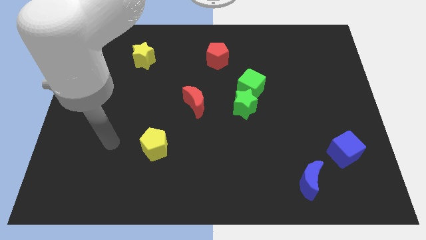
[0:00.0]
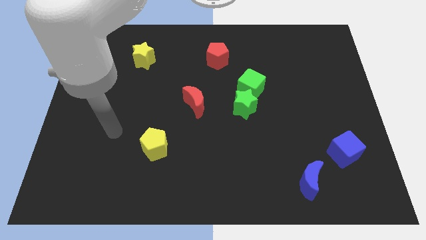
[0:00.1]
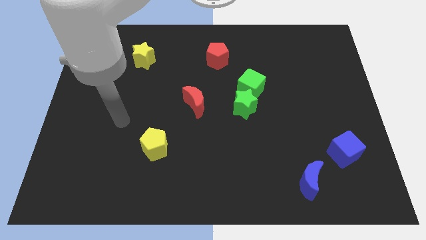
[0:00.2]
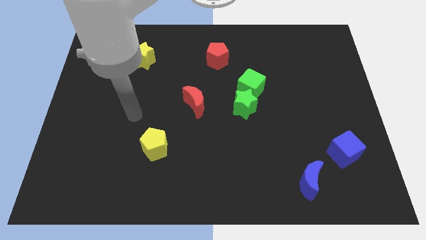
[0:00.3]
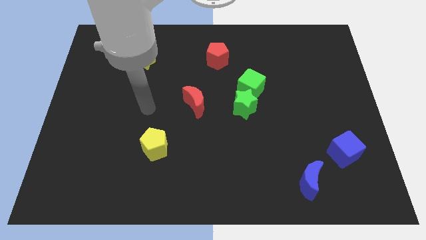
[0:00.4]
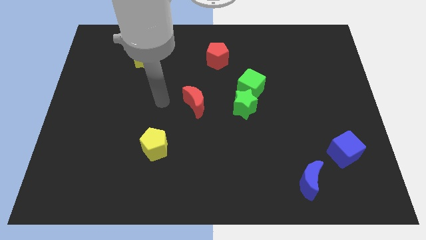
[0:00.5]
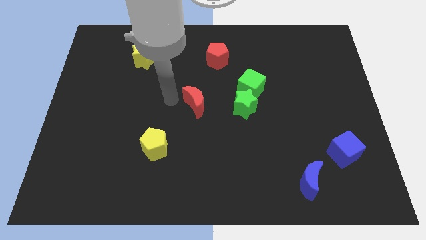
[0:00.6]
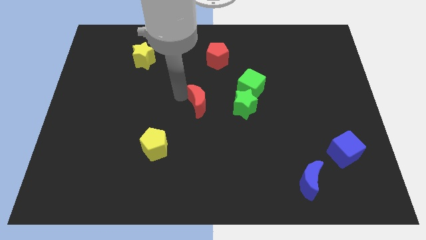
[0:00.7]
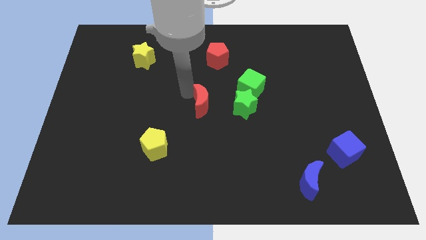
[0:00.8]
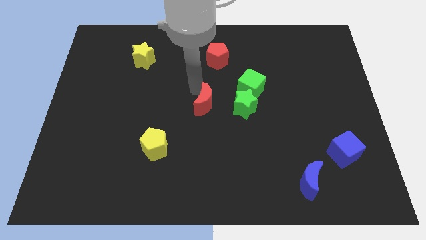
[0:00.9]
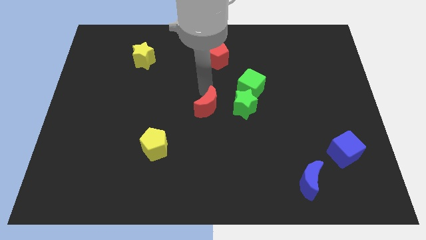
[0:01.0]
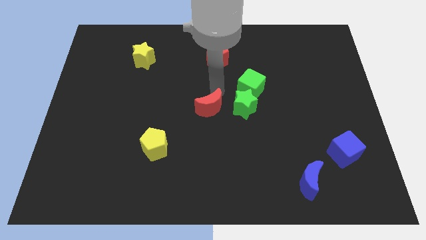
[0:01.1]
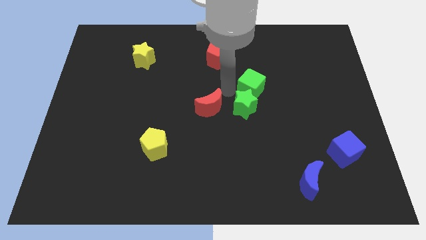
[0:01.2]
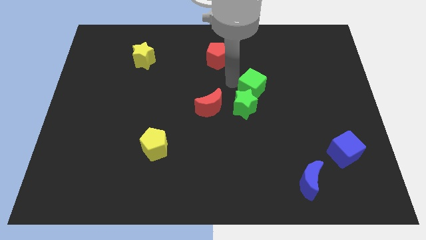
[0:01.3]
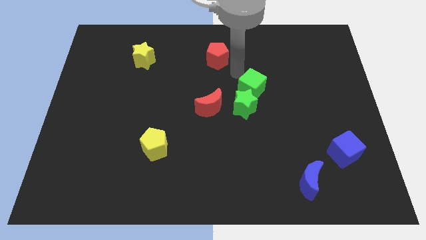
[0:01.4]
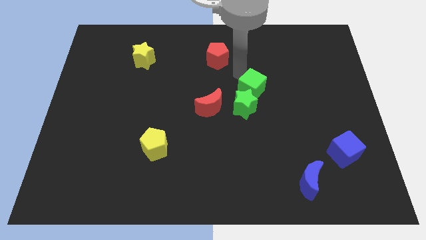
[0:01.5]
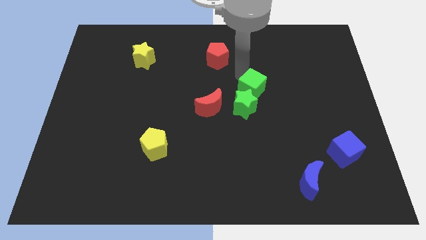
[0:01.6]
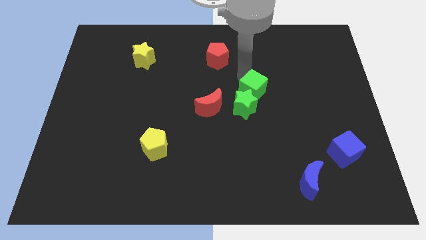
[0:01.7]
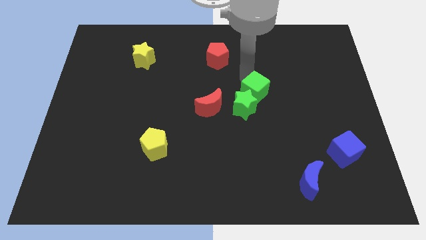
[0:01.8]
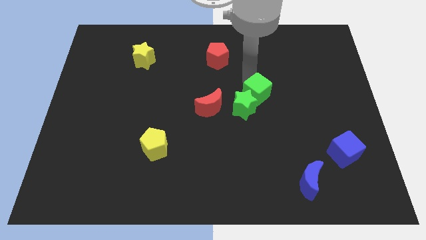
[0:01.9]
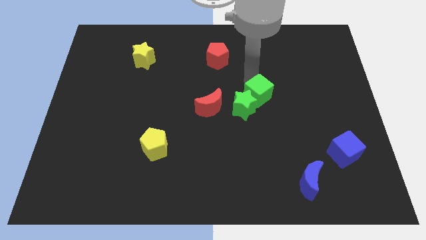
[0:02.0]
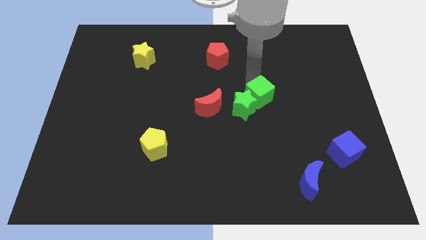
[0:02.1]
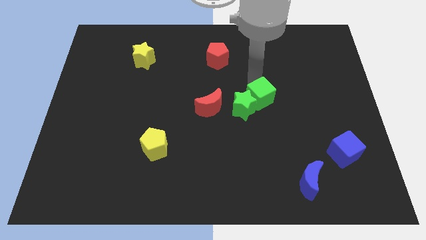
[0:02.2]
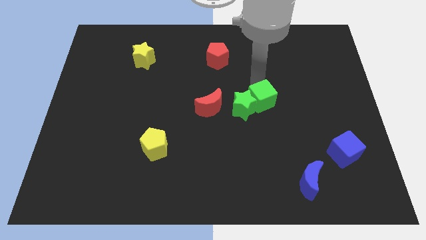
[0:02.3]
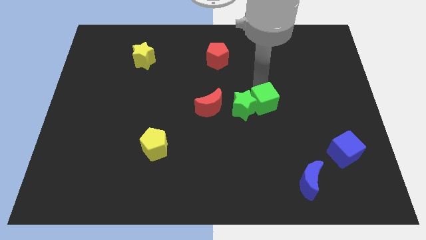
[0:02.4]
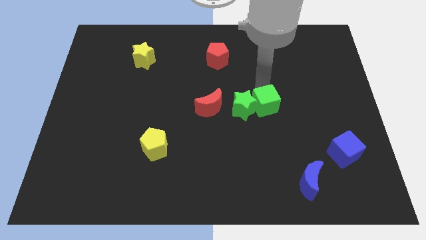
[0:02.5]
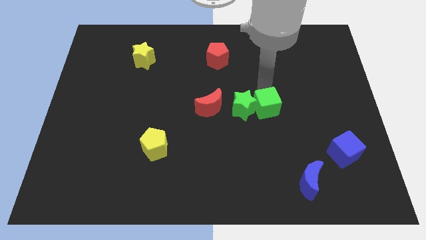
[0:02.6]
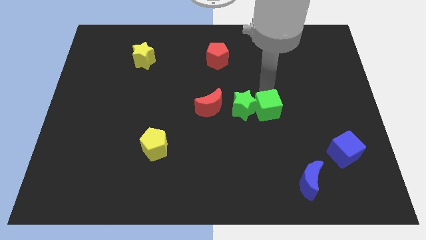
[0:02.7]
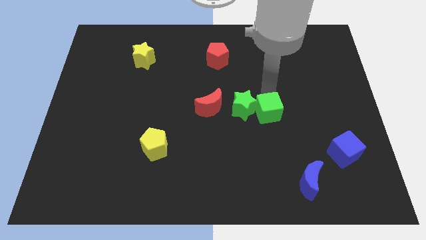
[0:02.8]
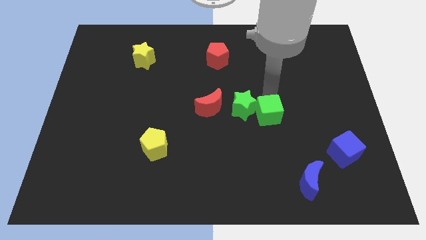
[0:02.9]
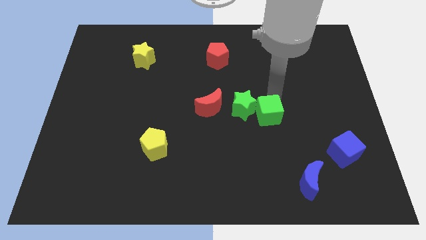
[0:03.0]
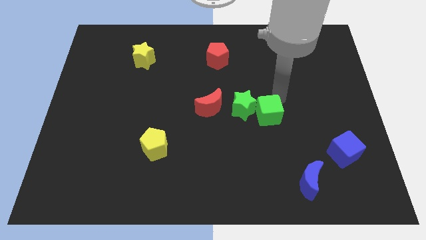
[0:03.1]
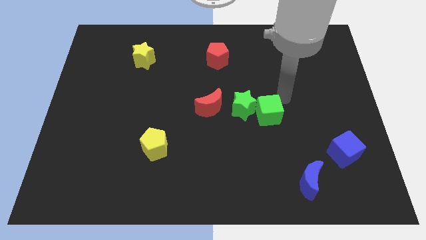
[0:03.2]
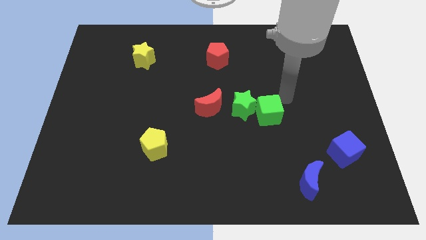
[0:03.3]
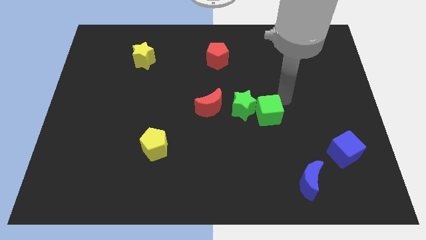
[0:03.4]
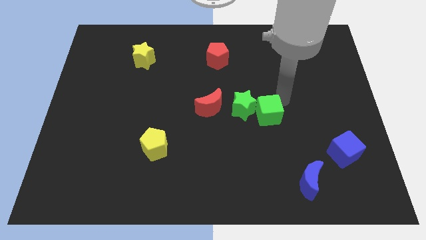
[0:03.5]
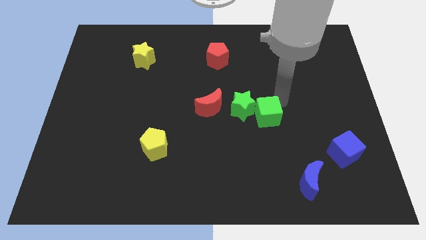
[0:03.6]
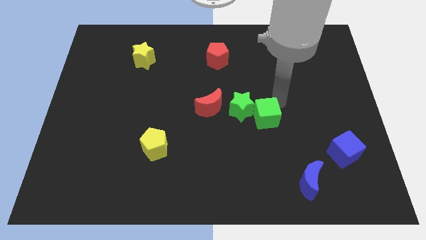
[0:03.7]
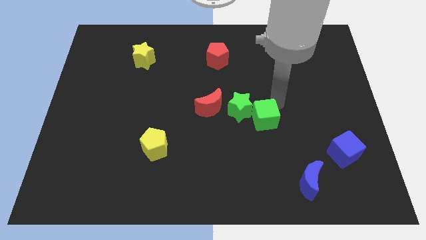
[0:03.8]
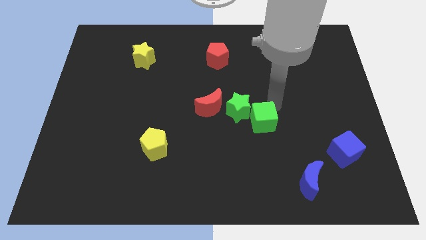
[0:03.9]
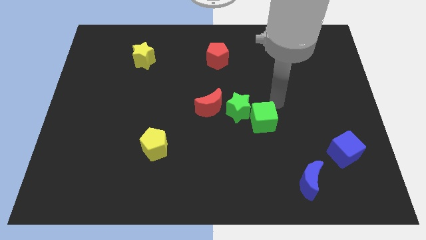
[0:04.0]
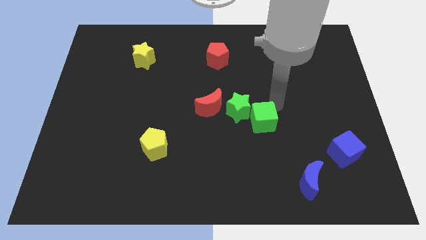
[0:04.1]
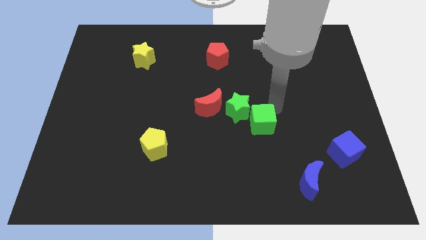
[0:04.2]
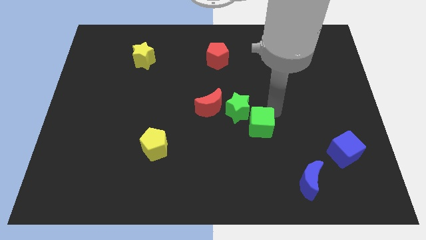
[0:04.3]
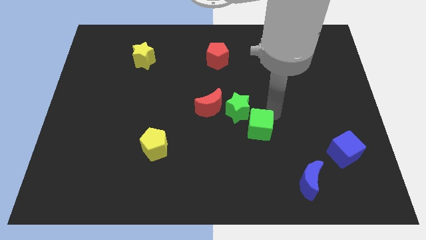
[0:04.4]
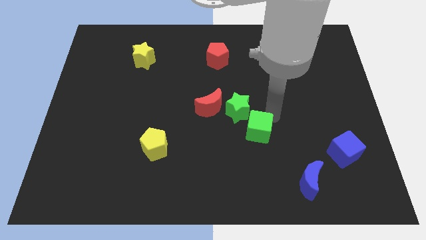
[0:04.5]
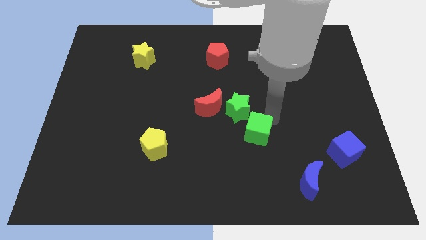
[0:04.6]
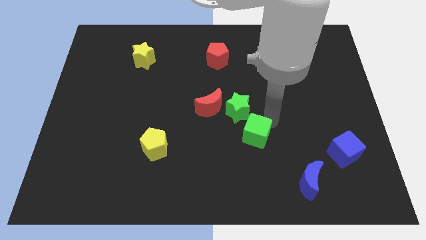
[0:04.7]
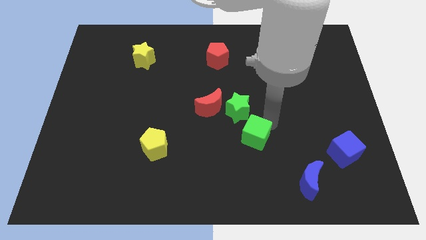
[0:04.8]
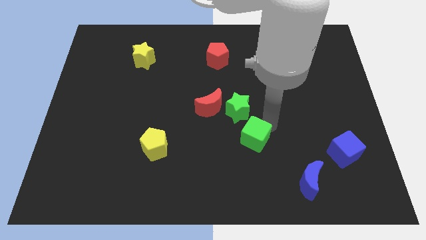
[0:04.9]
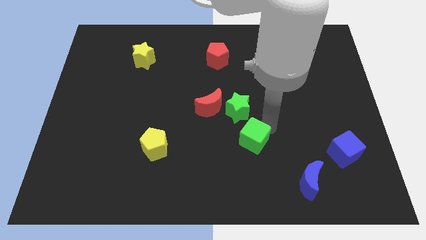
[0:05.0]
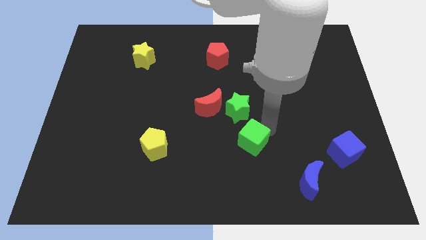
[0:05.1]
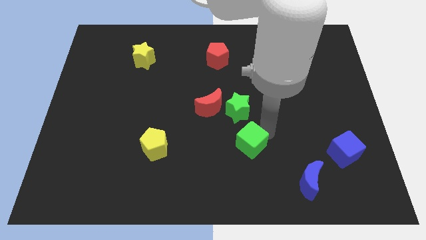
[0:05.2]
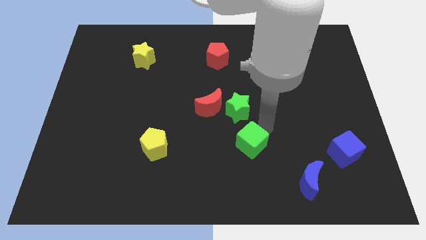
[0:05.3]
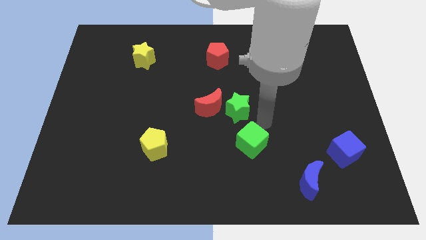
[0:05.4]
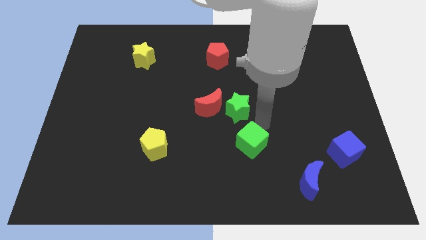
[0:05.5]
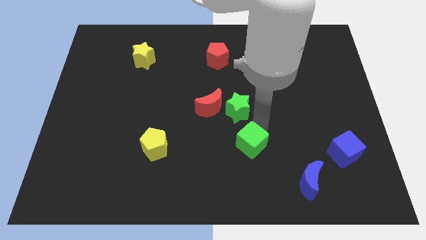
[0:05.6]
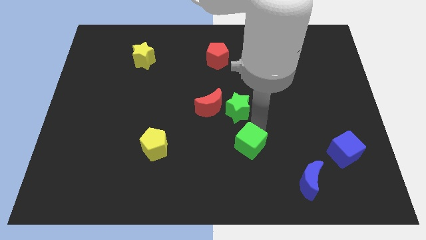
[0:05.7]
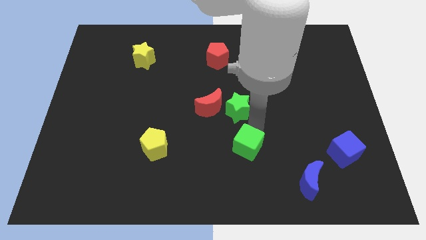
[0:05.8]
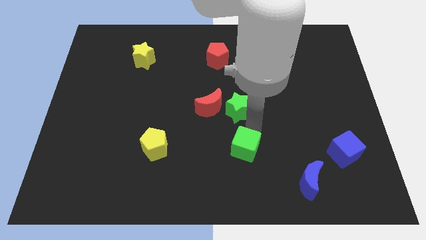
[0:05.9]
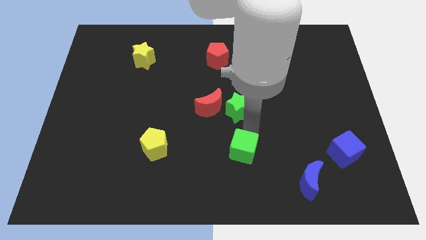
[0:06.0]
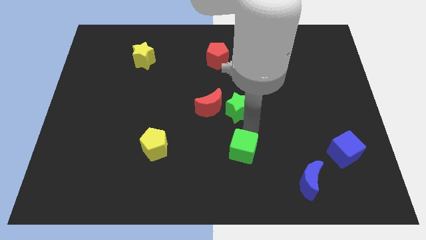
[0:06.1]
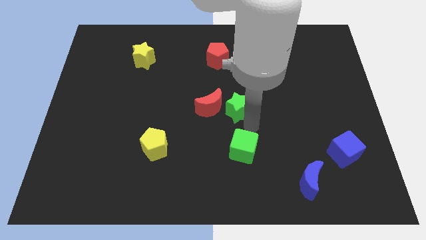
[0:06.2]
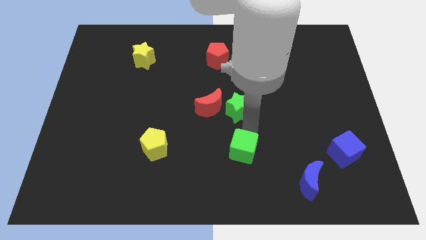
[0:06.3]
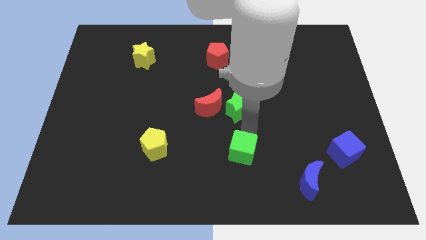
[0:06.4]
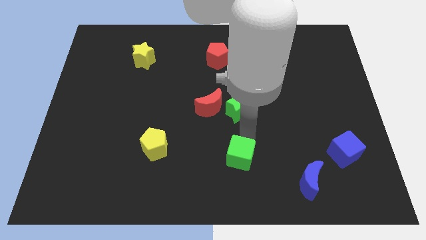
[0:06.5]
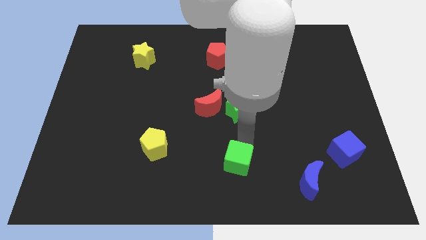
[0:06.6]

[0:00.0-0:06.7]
put the green cube to the bottom
